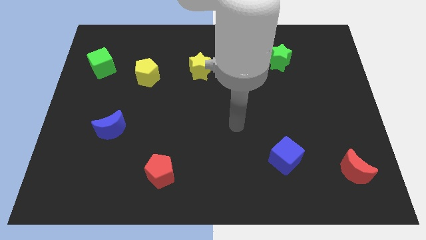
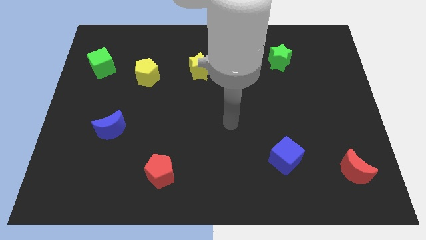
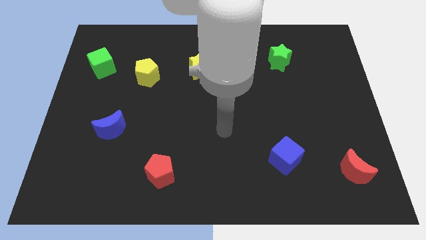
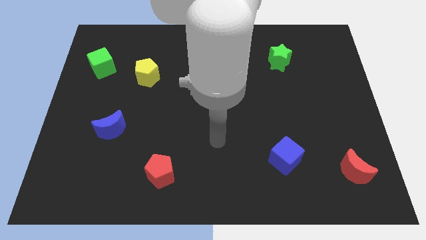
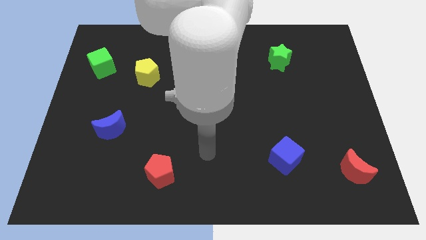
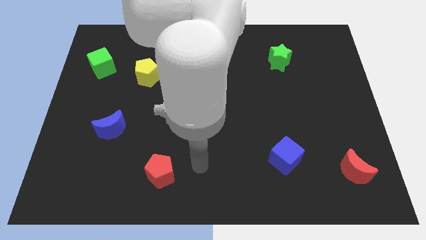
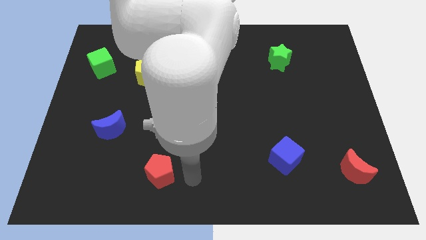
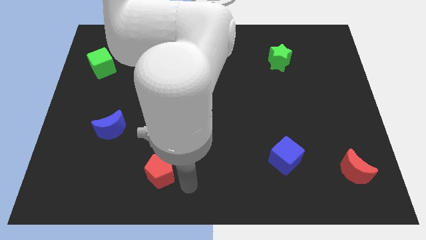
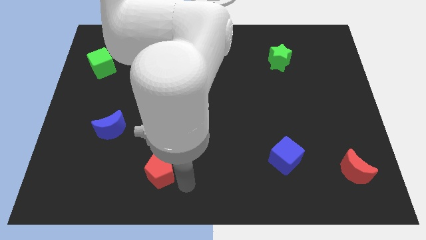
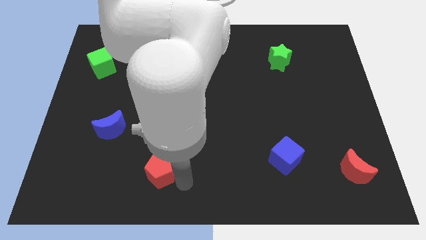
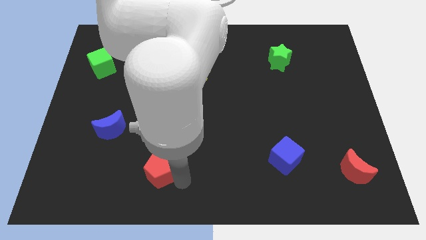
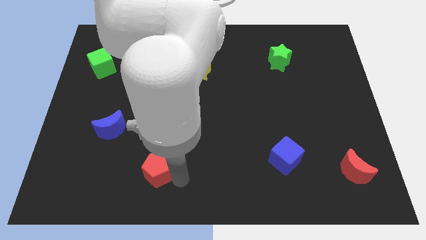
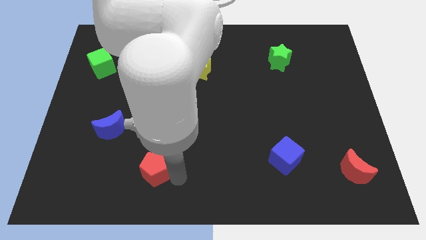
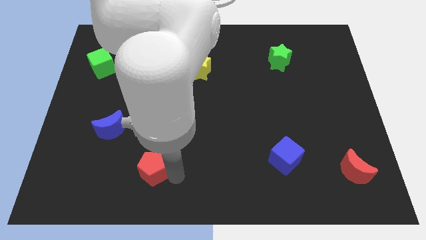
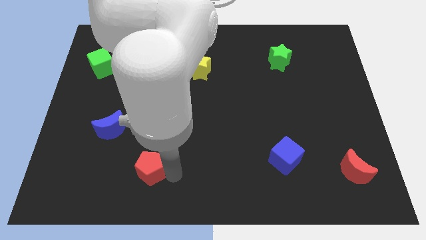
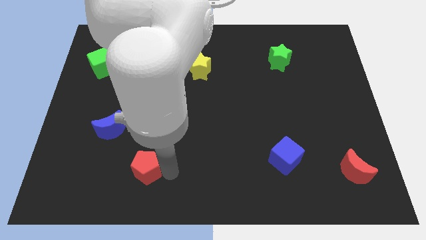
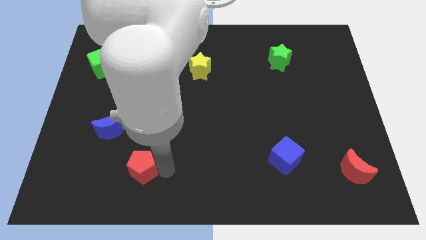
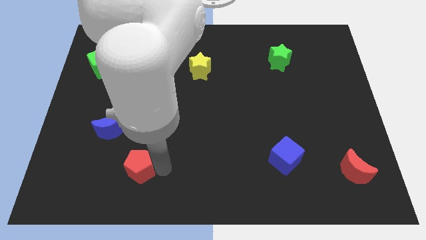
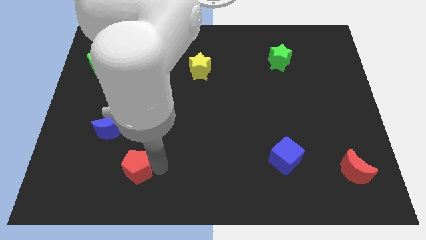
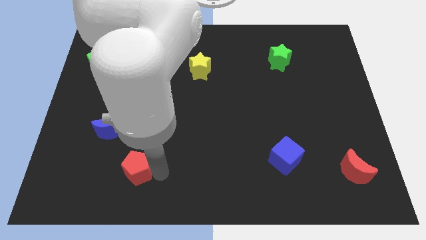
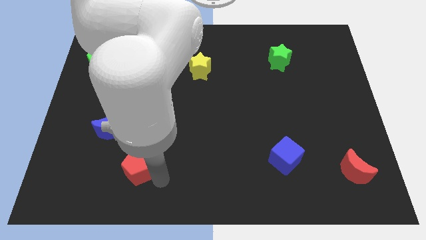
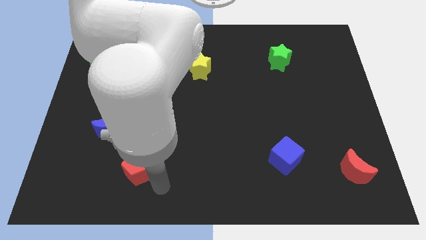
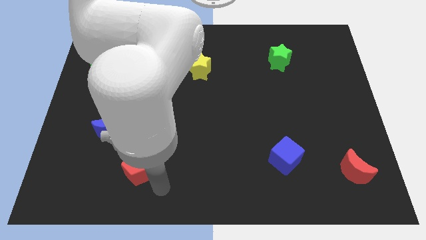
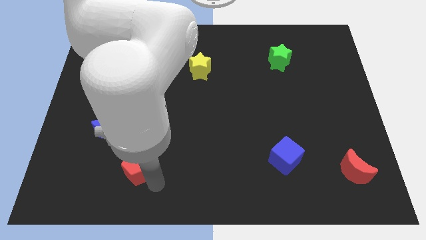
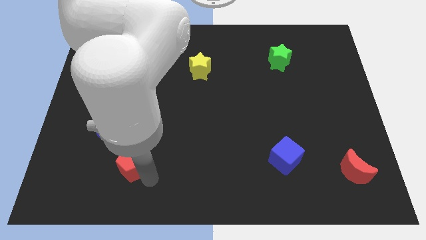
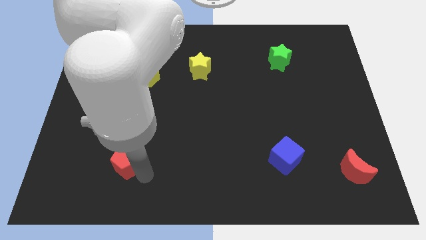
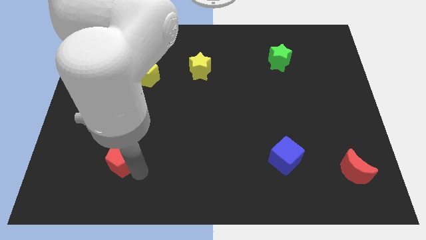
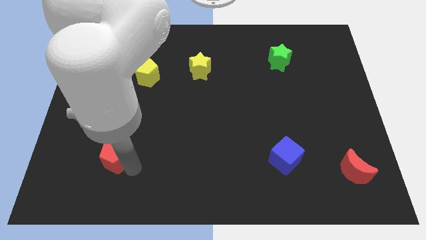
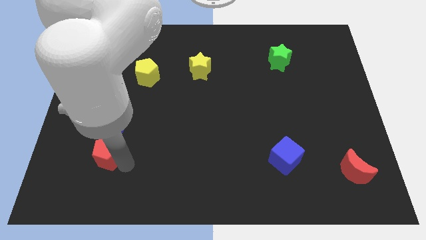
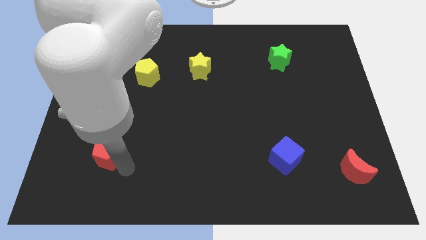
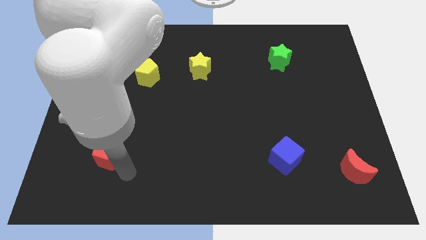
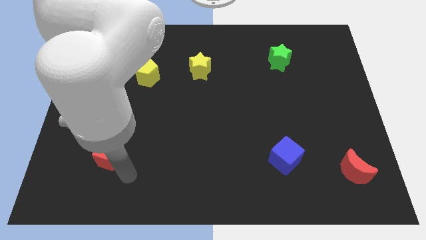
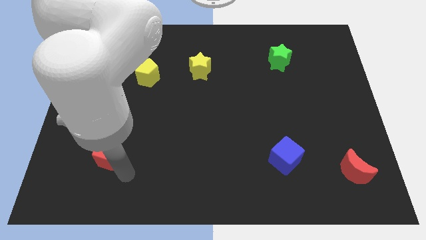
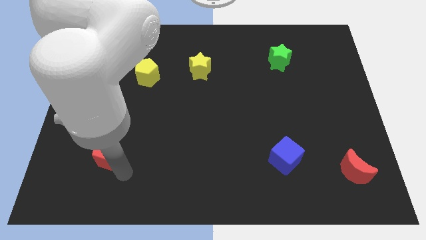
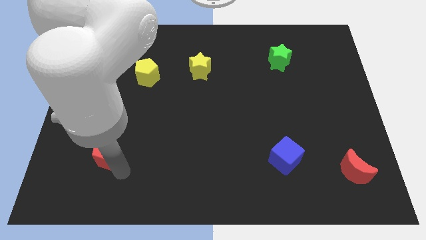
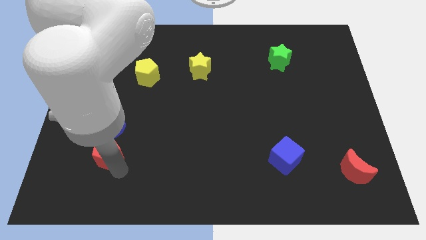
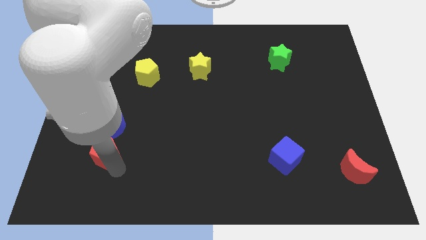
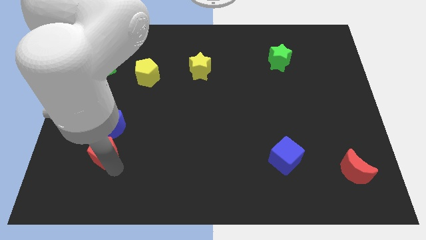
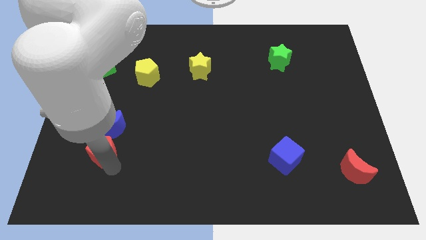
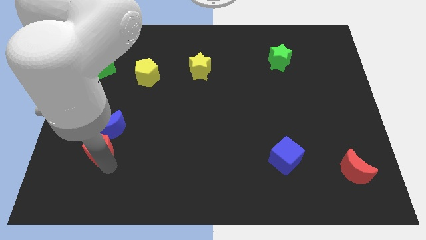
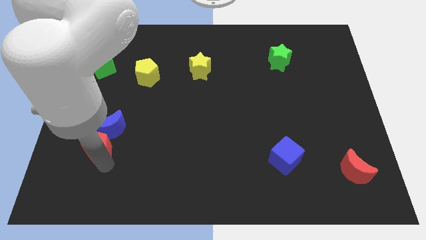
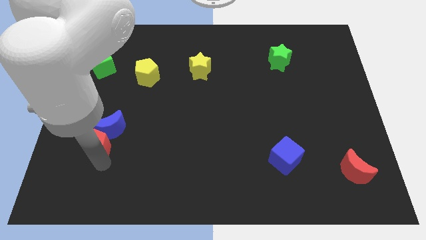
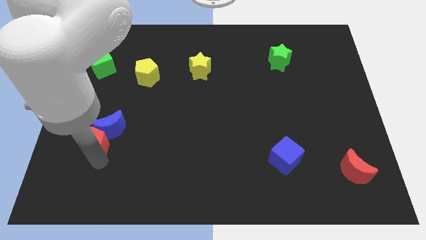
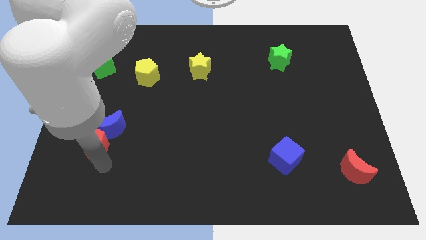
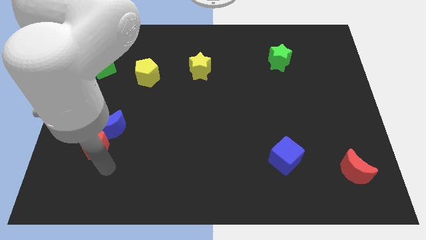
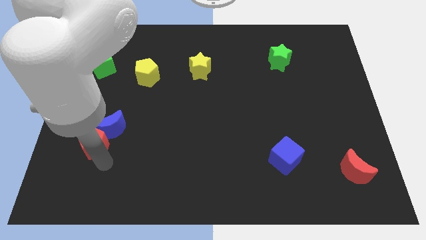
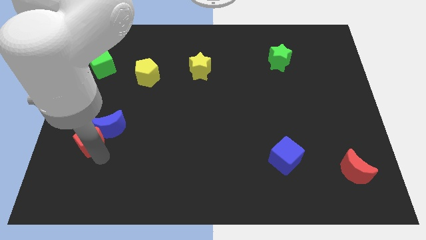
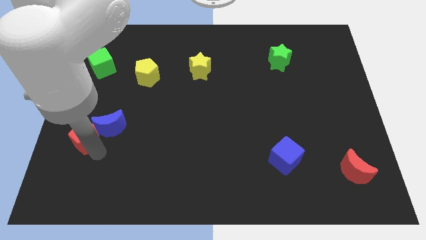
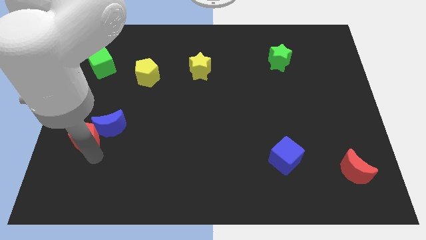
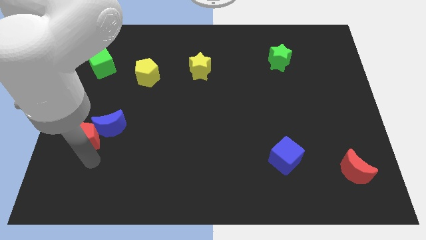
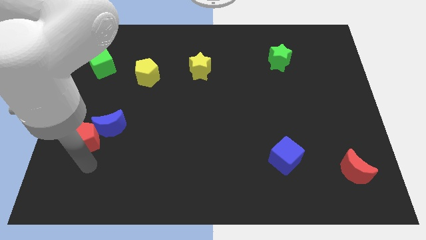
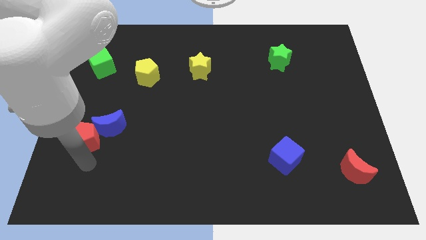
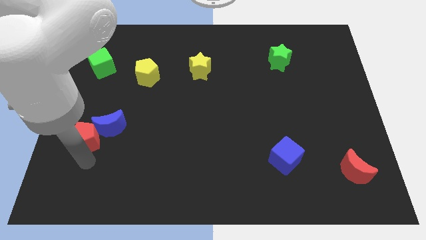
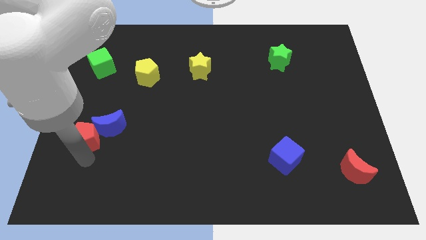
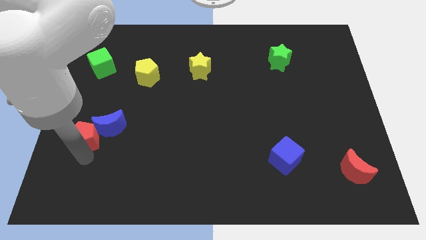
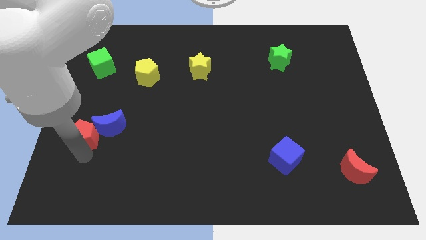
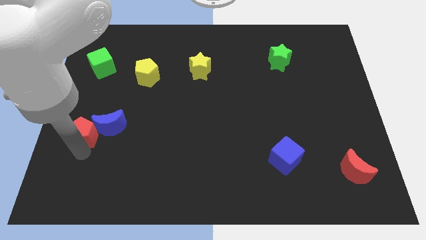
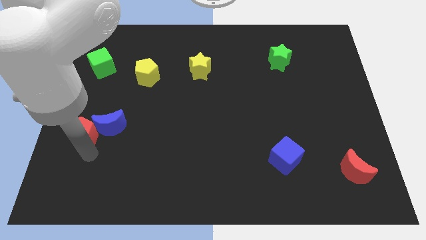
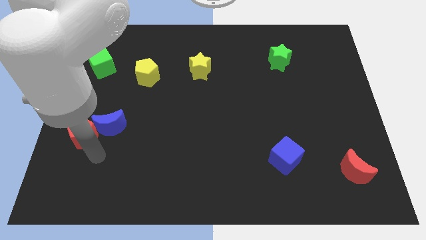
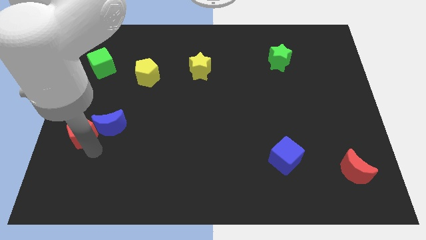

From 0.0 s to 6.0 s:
push the red pentagon to the left side

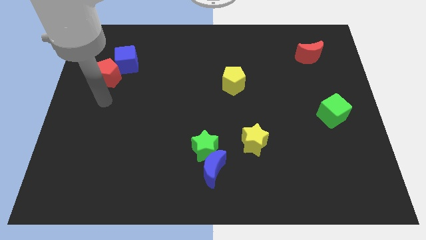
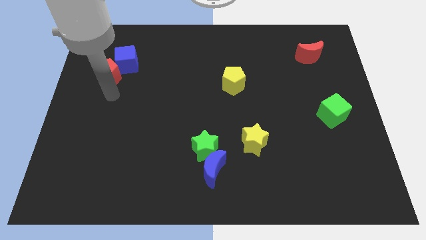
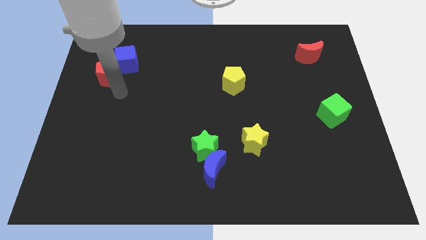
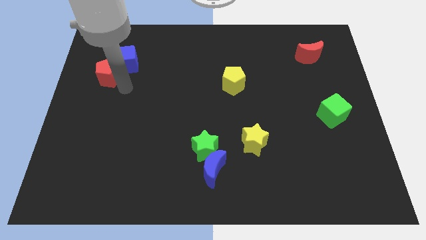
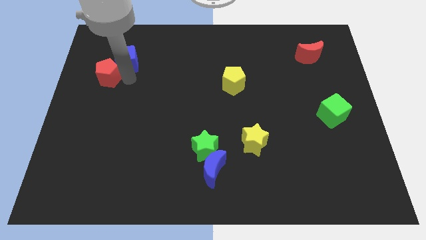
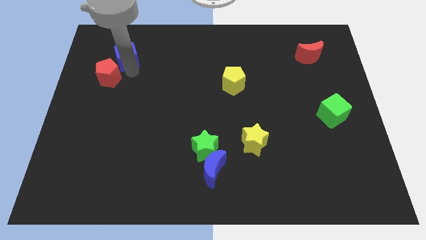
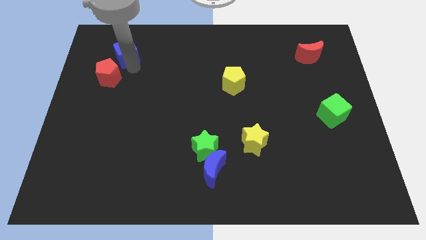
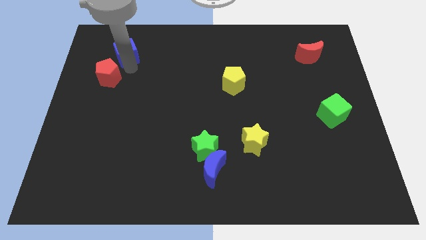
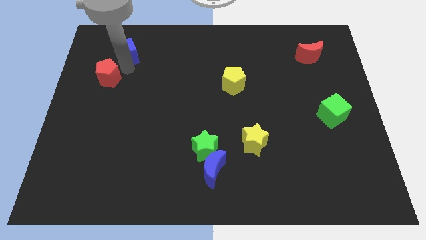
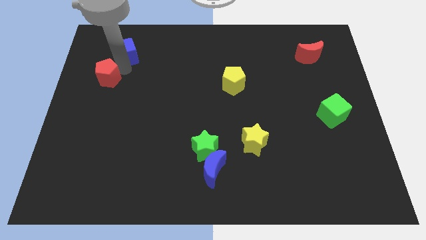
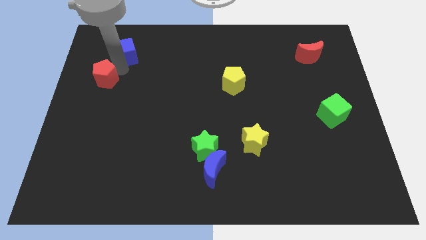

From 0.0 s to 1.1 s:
put the red pentagon to the center left
